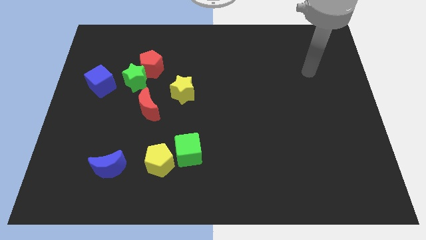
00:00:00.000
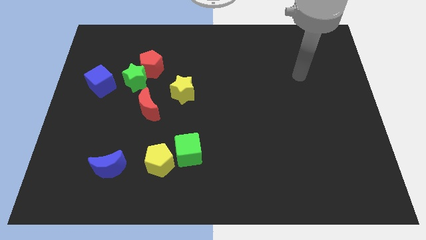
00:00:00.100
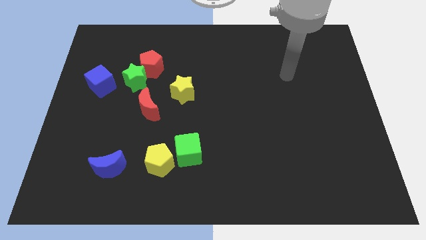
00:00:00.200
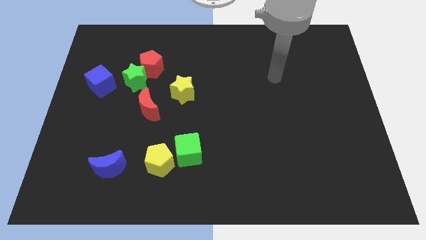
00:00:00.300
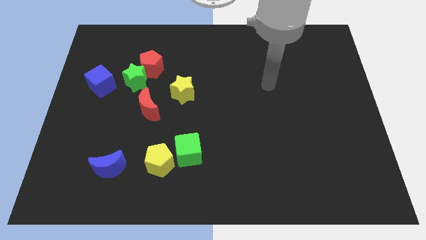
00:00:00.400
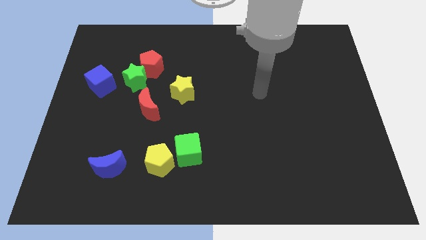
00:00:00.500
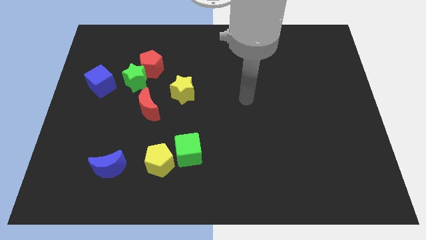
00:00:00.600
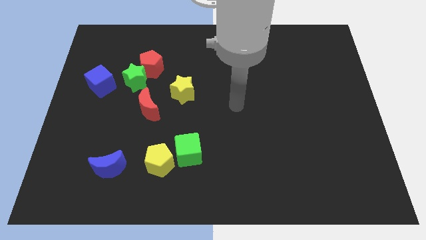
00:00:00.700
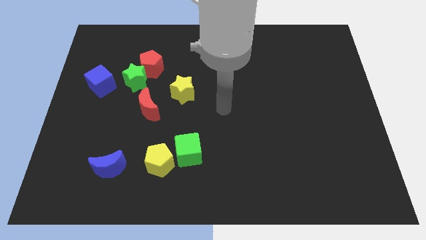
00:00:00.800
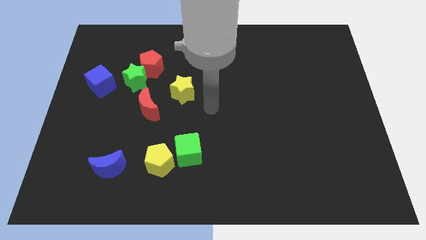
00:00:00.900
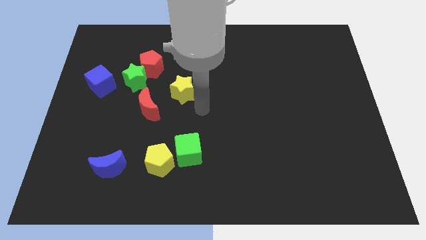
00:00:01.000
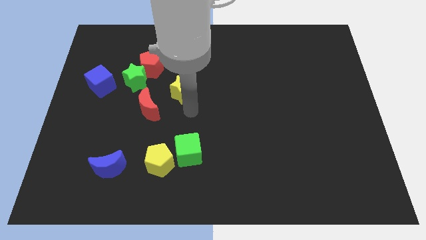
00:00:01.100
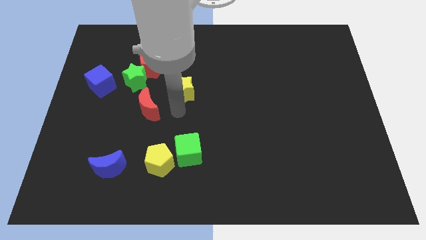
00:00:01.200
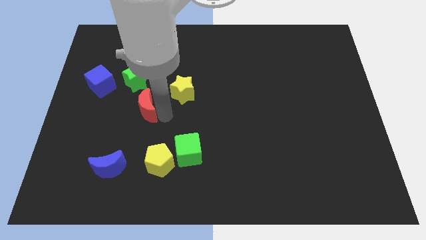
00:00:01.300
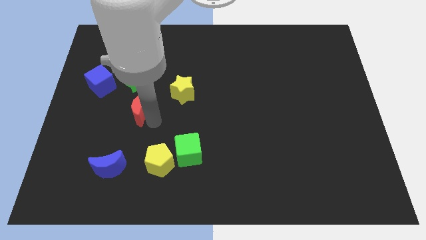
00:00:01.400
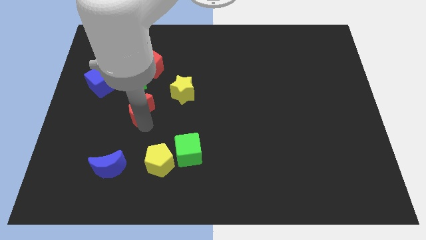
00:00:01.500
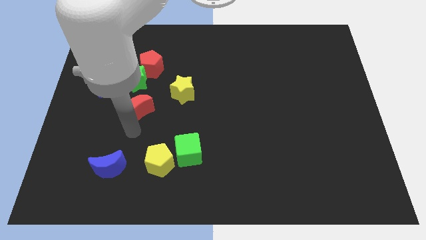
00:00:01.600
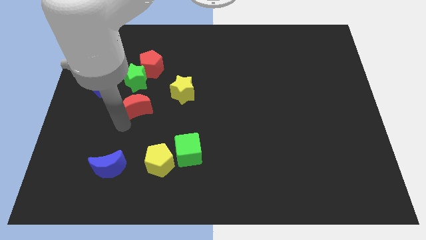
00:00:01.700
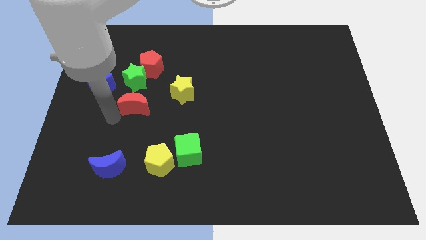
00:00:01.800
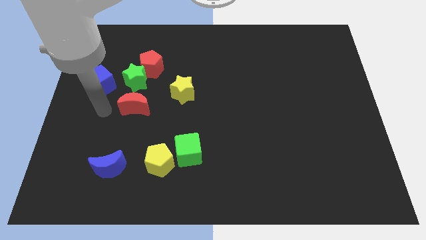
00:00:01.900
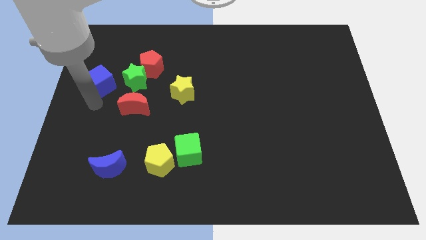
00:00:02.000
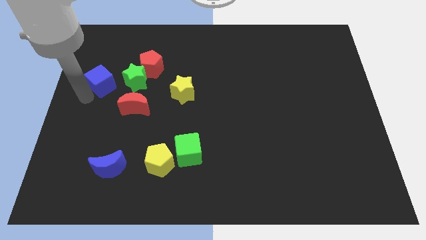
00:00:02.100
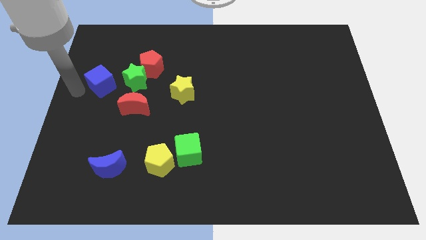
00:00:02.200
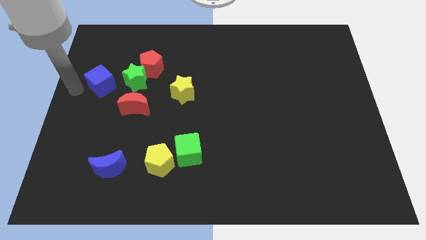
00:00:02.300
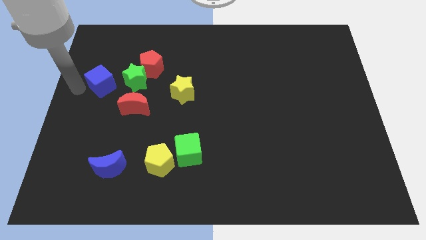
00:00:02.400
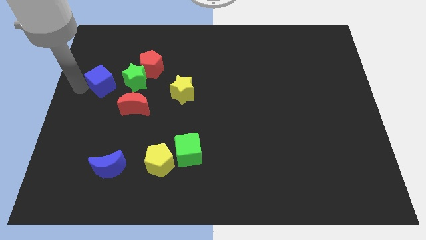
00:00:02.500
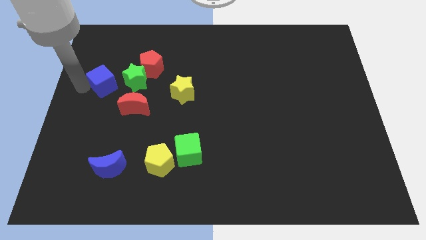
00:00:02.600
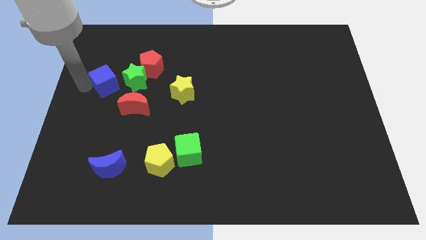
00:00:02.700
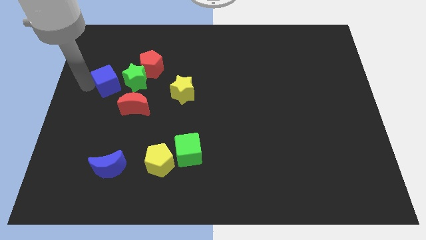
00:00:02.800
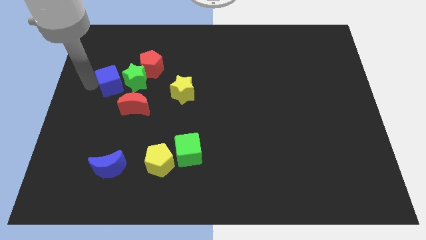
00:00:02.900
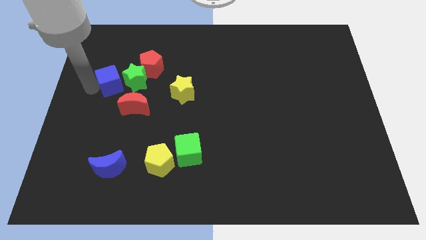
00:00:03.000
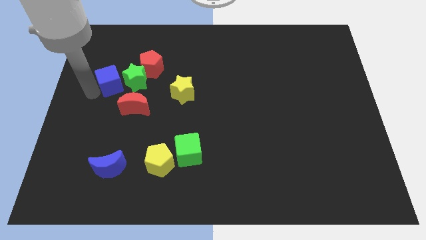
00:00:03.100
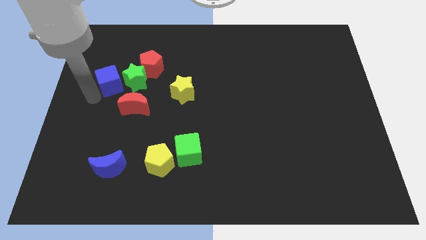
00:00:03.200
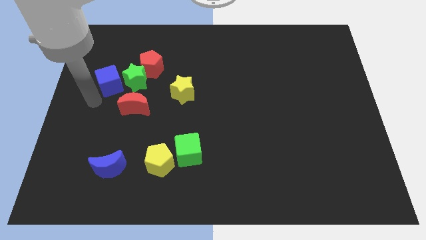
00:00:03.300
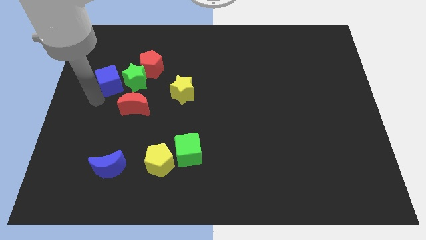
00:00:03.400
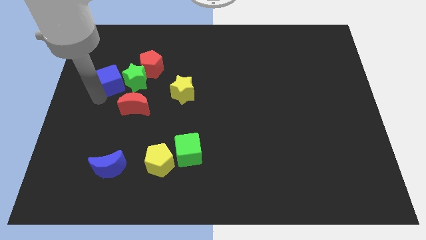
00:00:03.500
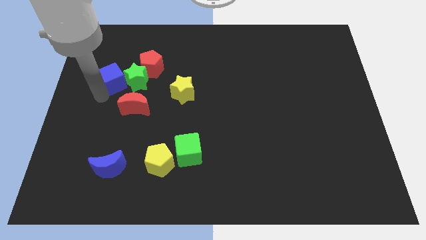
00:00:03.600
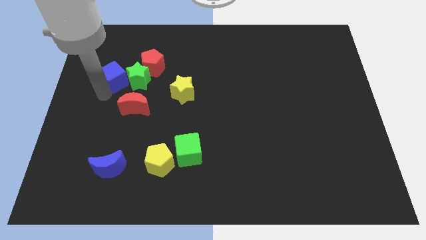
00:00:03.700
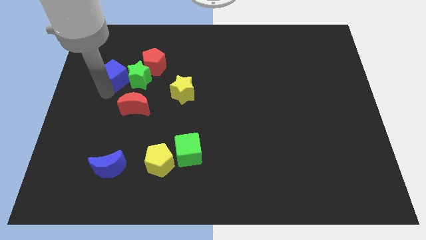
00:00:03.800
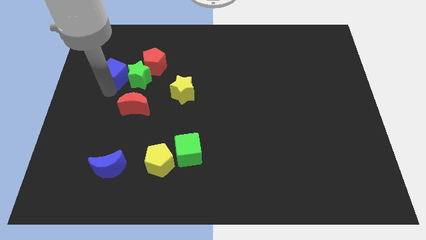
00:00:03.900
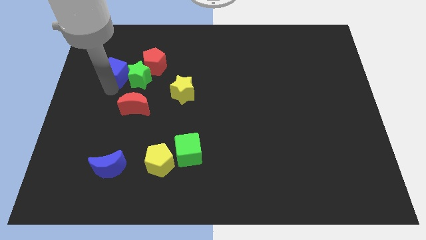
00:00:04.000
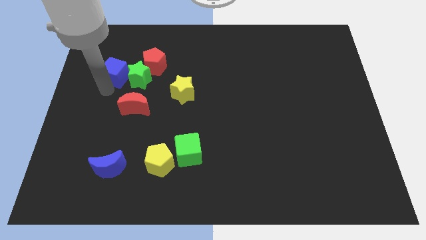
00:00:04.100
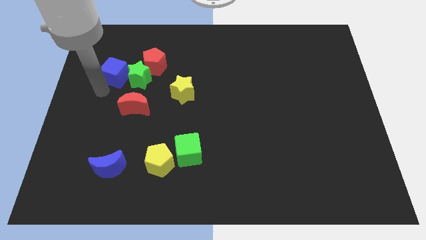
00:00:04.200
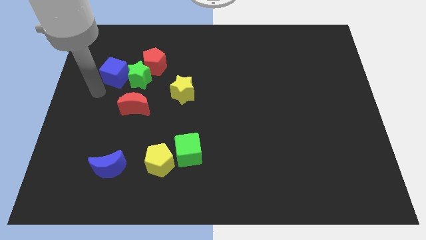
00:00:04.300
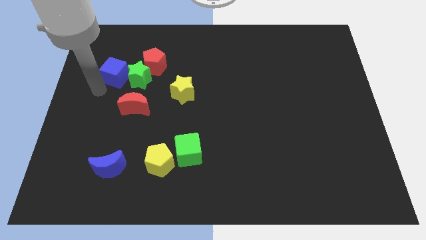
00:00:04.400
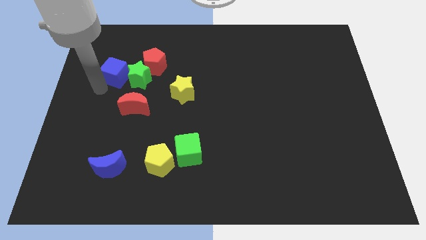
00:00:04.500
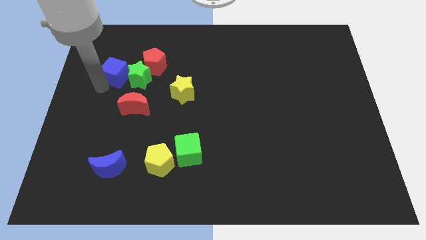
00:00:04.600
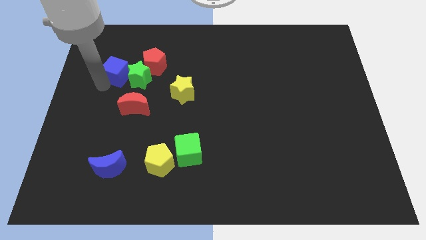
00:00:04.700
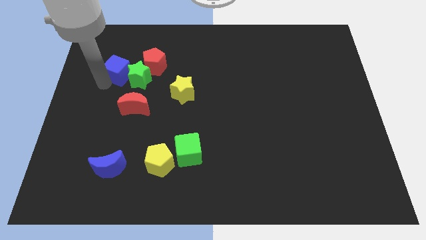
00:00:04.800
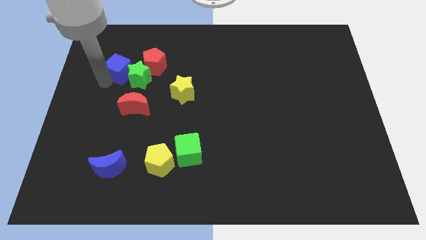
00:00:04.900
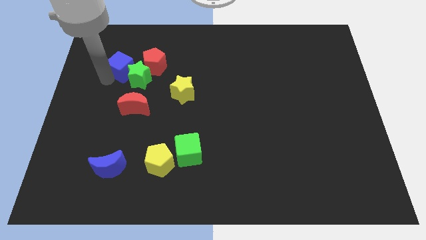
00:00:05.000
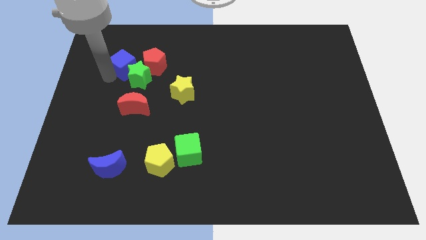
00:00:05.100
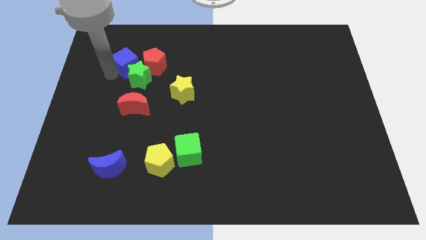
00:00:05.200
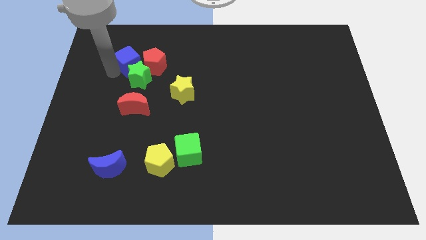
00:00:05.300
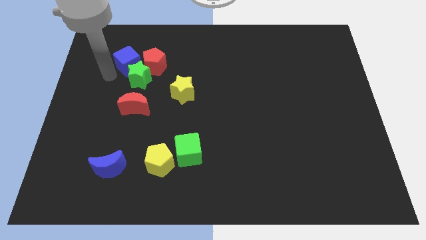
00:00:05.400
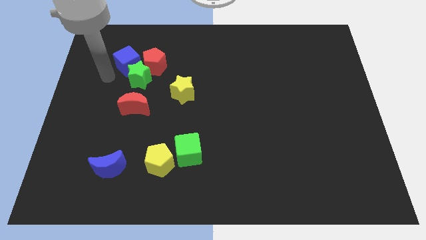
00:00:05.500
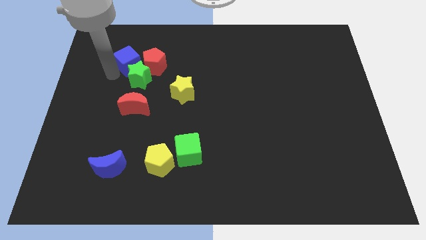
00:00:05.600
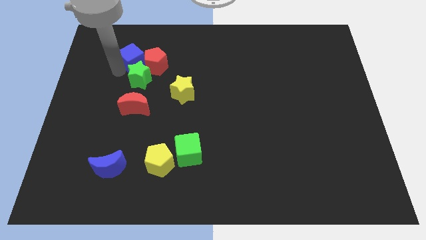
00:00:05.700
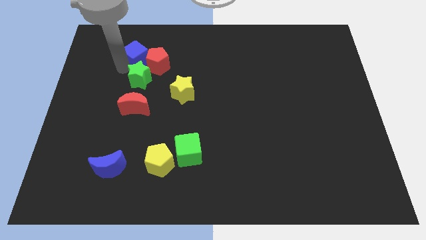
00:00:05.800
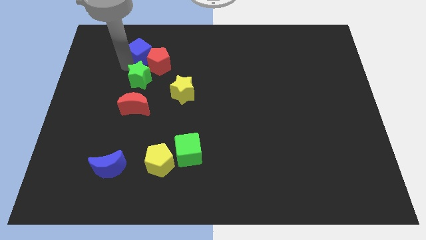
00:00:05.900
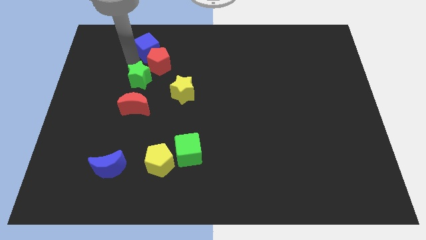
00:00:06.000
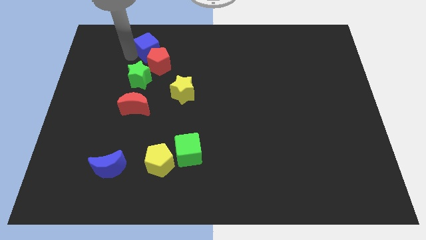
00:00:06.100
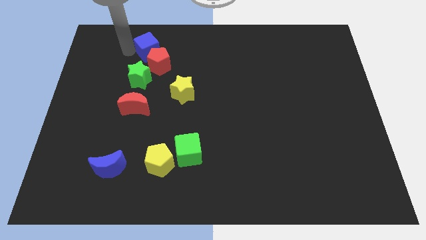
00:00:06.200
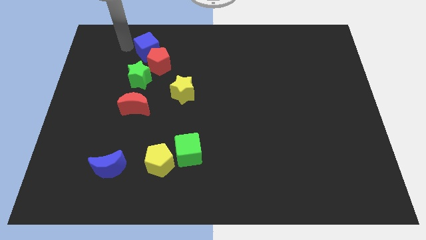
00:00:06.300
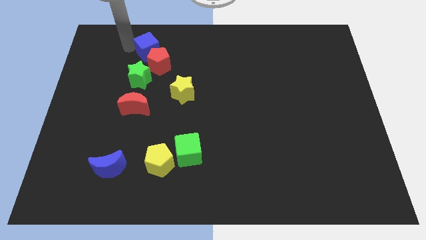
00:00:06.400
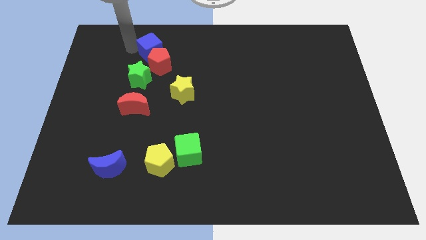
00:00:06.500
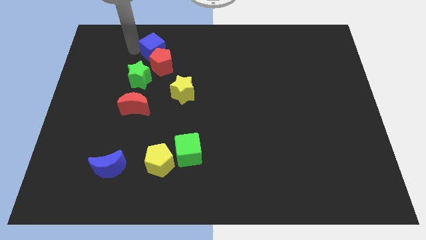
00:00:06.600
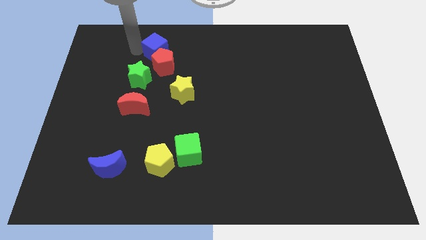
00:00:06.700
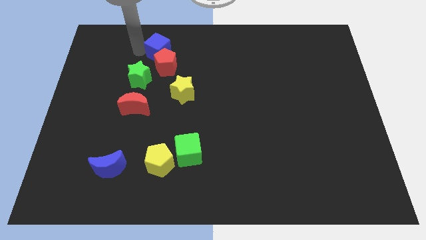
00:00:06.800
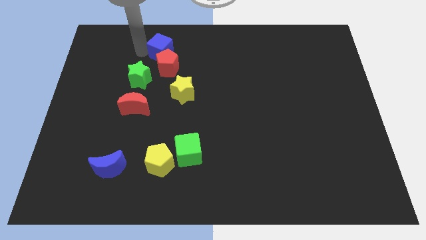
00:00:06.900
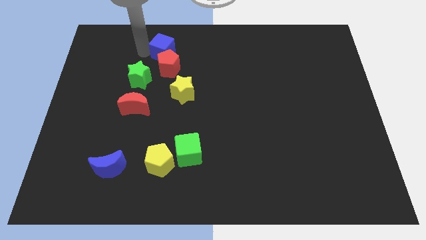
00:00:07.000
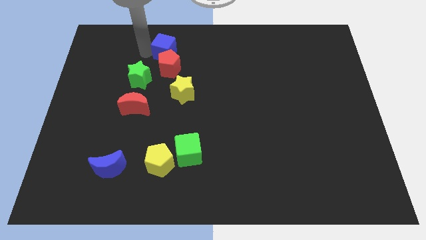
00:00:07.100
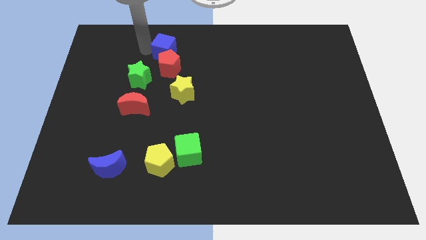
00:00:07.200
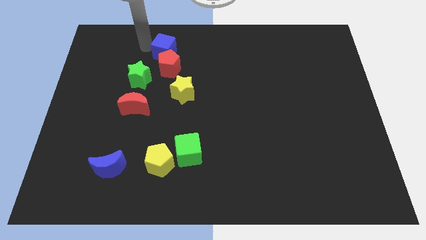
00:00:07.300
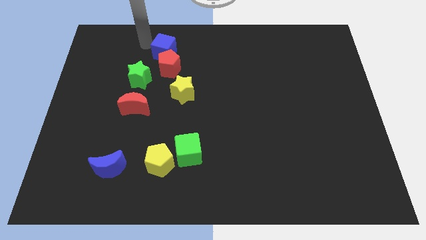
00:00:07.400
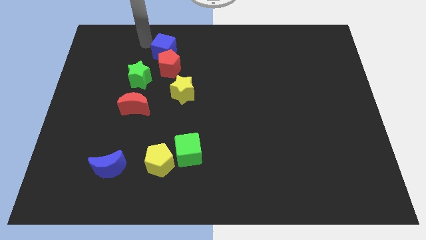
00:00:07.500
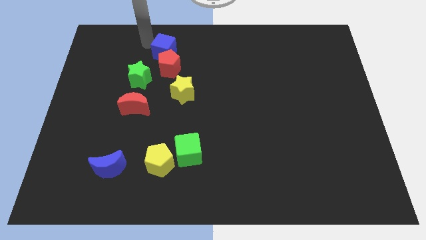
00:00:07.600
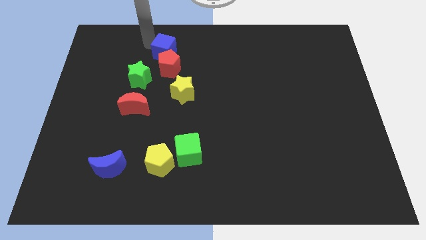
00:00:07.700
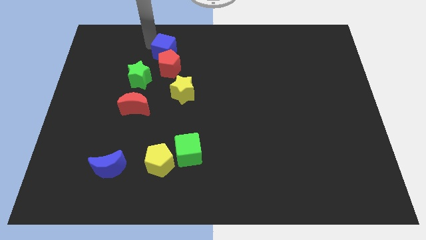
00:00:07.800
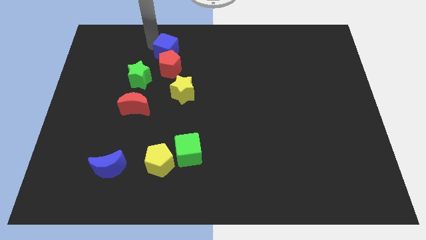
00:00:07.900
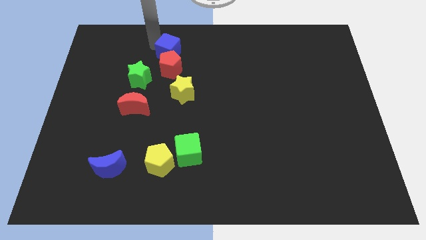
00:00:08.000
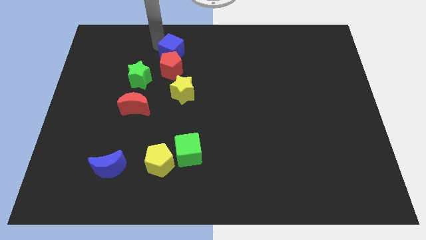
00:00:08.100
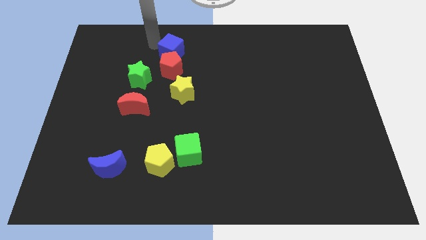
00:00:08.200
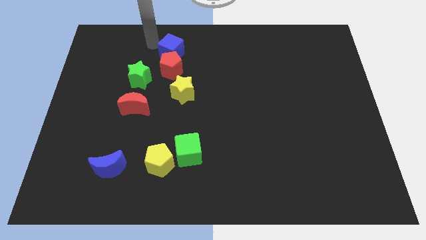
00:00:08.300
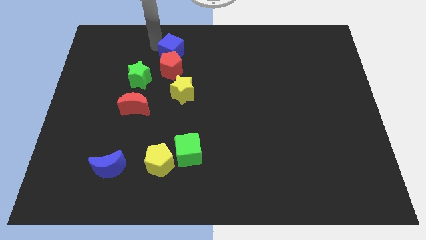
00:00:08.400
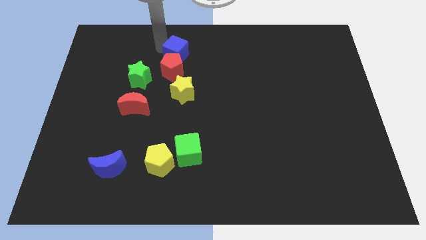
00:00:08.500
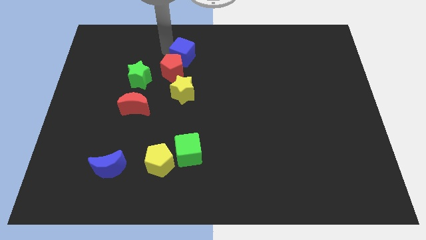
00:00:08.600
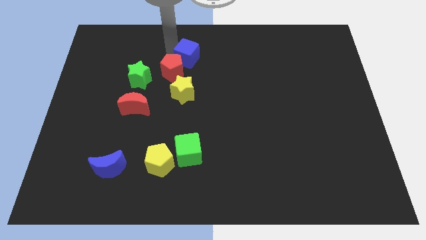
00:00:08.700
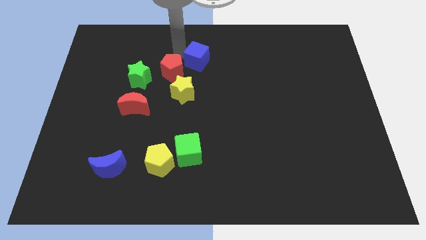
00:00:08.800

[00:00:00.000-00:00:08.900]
push the blue cube to the right
